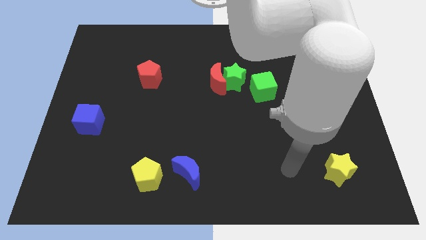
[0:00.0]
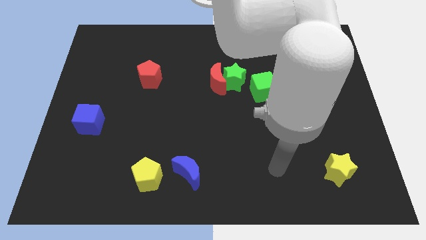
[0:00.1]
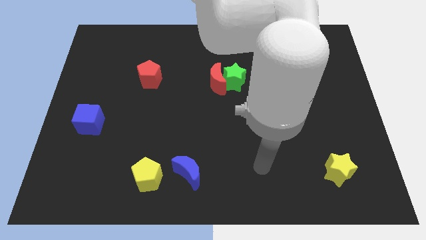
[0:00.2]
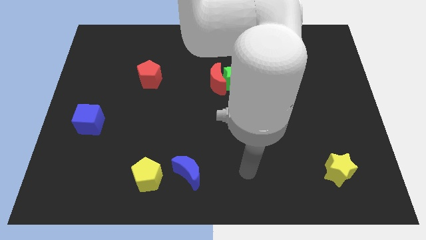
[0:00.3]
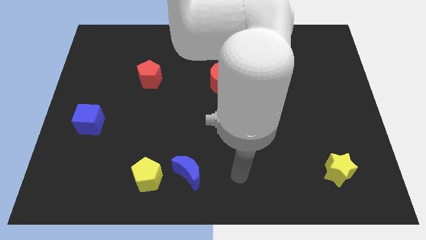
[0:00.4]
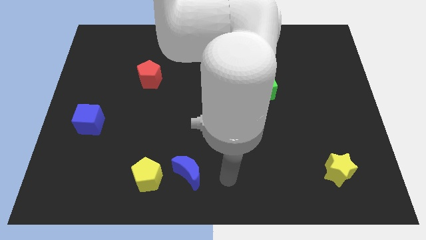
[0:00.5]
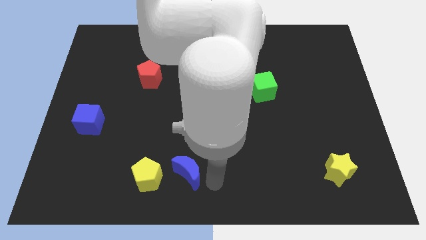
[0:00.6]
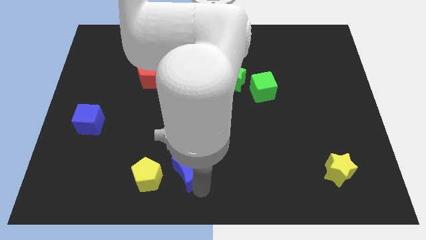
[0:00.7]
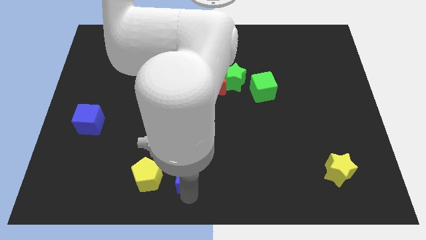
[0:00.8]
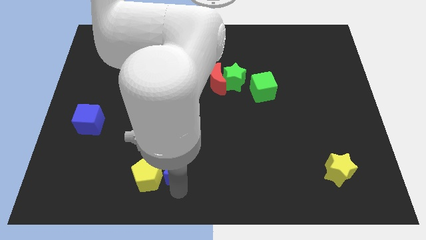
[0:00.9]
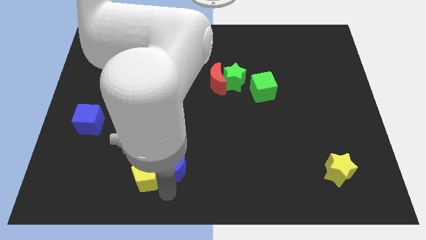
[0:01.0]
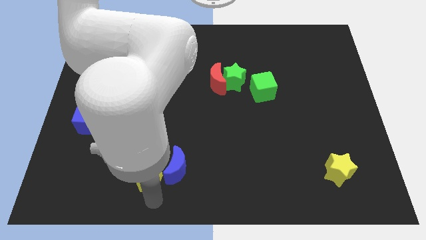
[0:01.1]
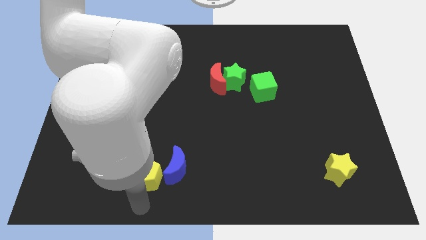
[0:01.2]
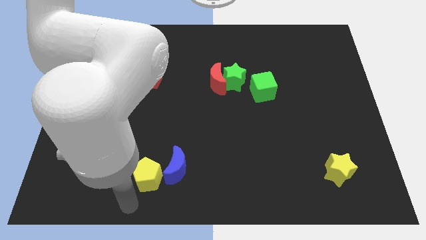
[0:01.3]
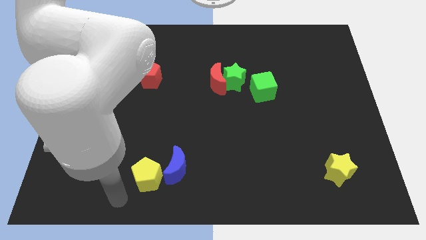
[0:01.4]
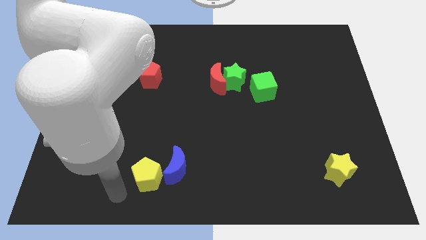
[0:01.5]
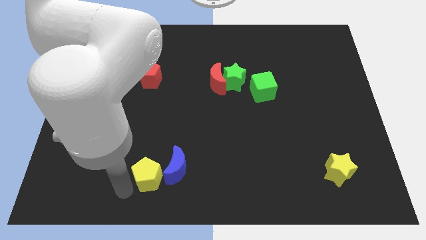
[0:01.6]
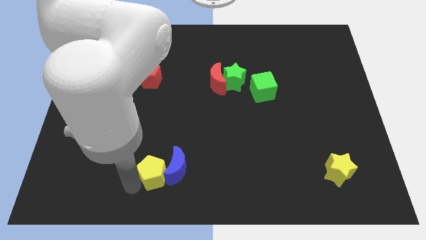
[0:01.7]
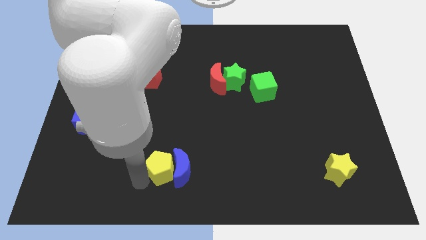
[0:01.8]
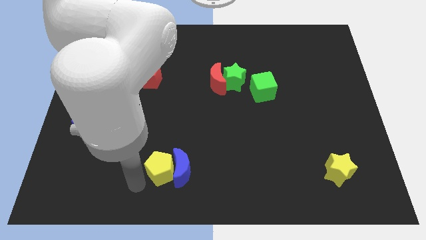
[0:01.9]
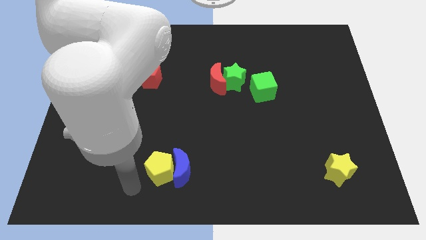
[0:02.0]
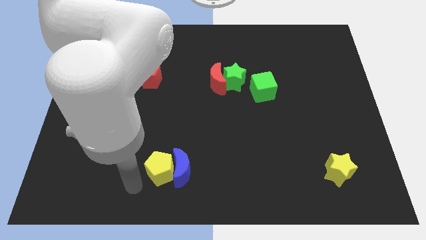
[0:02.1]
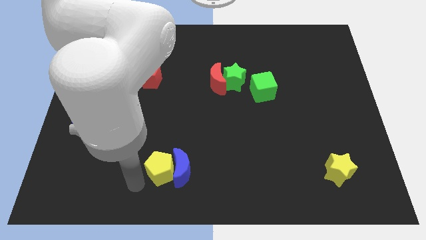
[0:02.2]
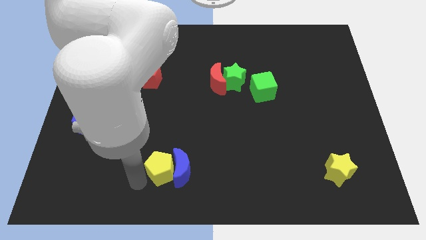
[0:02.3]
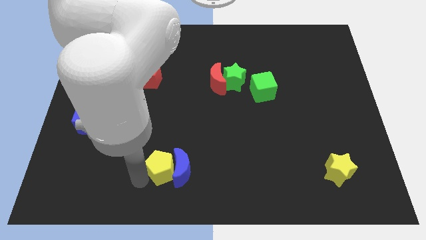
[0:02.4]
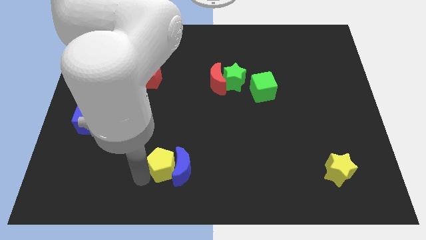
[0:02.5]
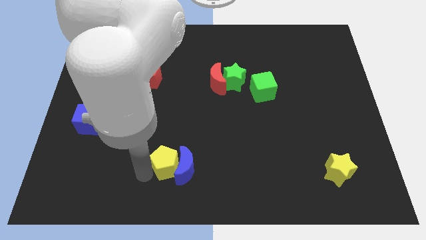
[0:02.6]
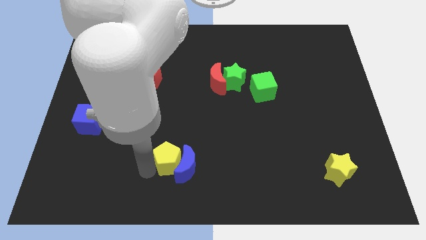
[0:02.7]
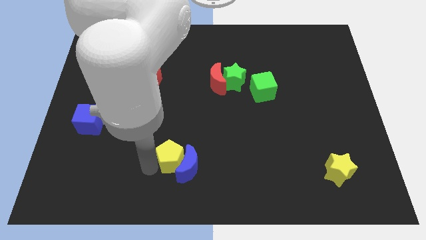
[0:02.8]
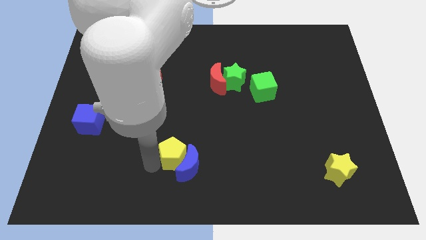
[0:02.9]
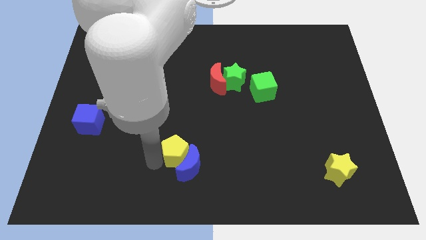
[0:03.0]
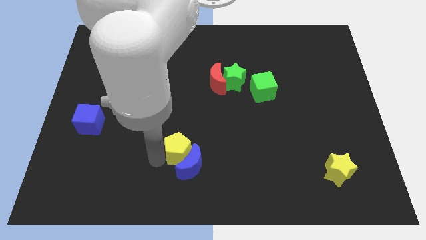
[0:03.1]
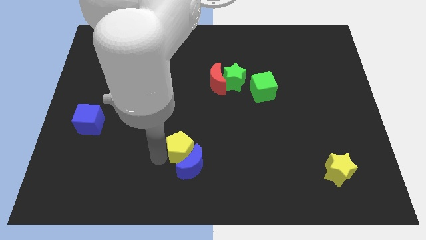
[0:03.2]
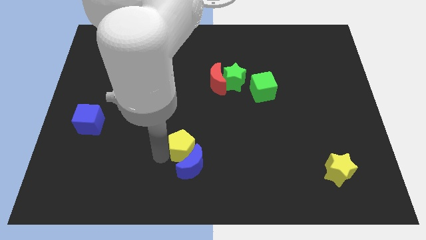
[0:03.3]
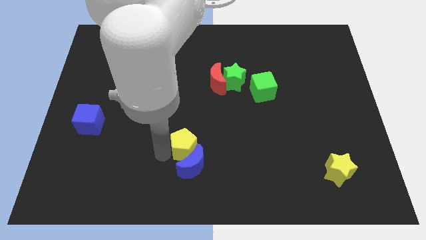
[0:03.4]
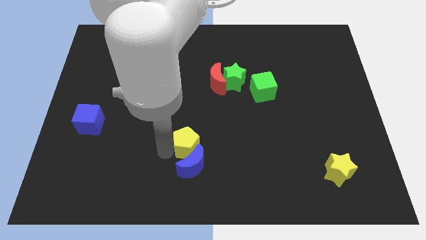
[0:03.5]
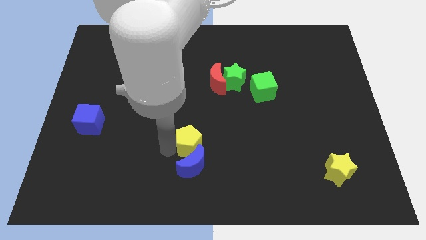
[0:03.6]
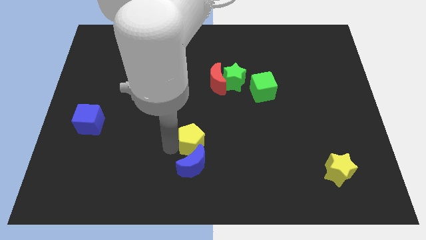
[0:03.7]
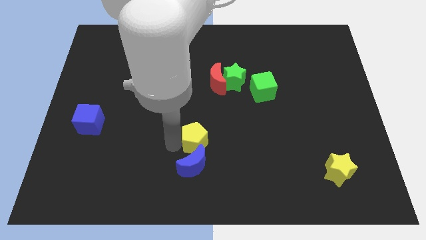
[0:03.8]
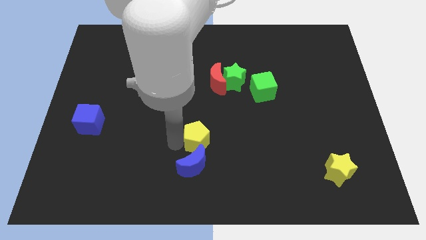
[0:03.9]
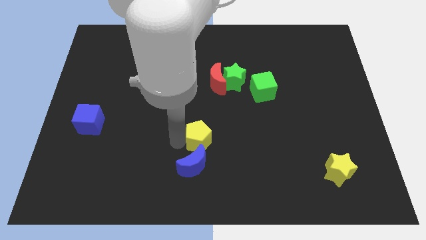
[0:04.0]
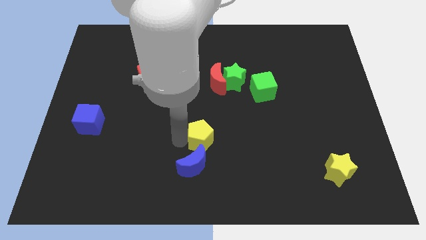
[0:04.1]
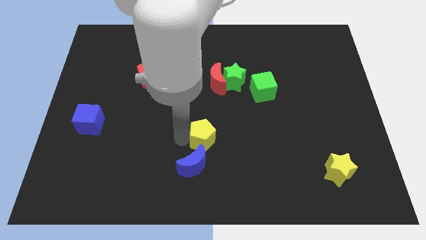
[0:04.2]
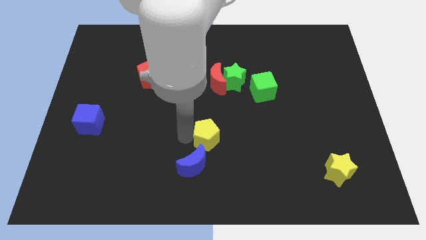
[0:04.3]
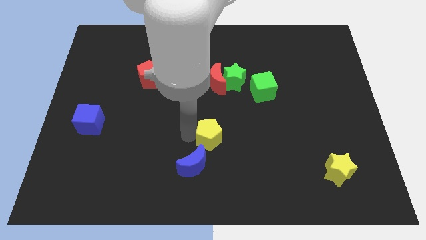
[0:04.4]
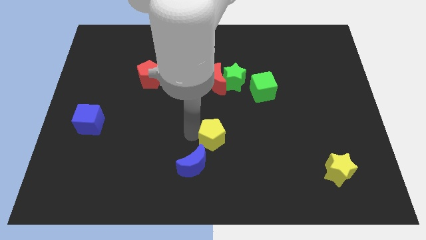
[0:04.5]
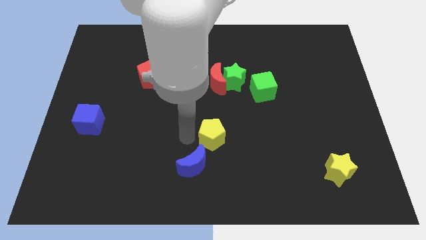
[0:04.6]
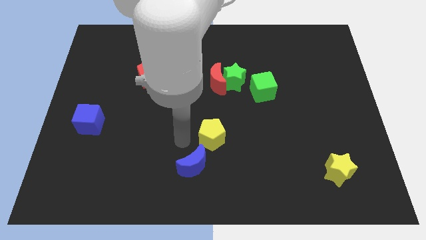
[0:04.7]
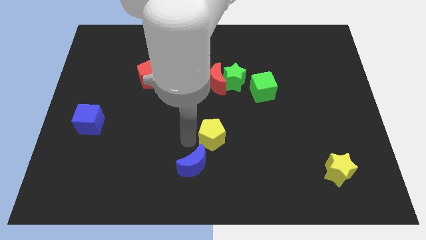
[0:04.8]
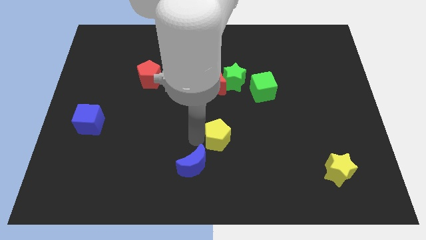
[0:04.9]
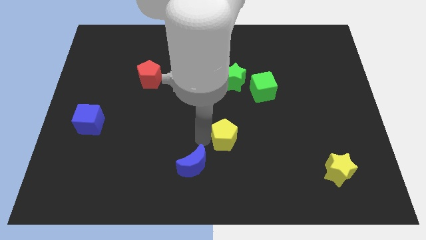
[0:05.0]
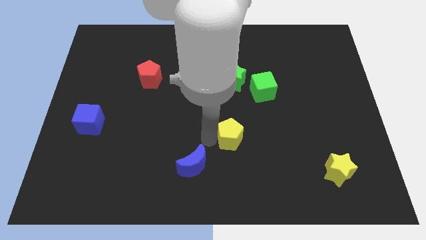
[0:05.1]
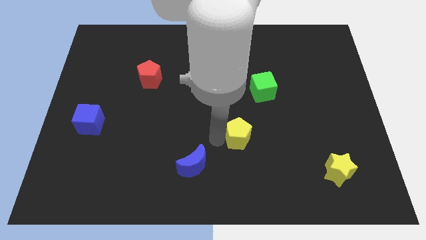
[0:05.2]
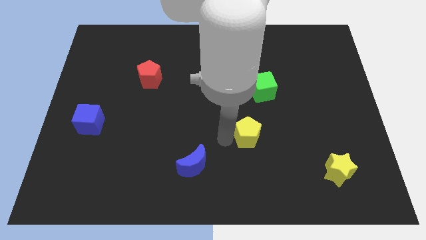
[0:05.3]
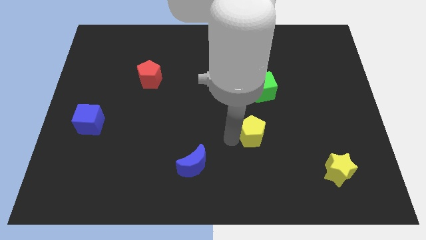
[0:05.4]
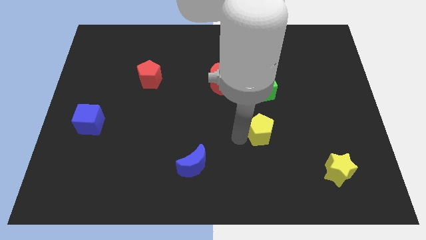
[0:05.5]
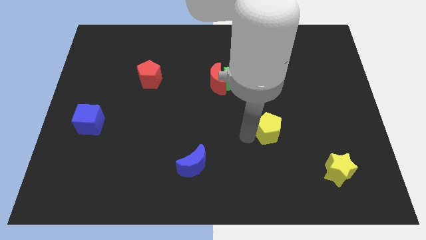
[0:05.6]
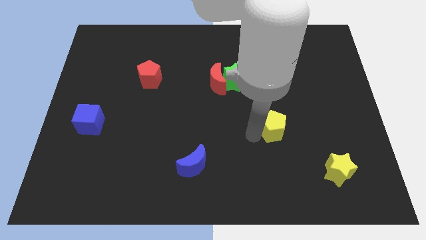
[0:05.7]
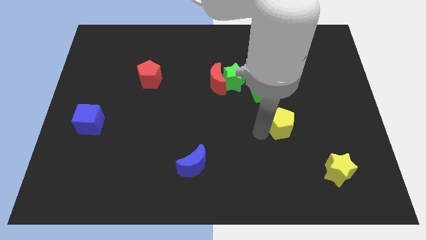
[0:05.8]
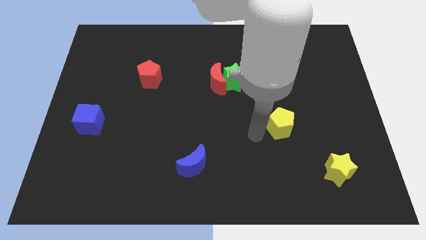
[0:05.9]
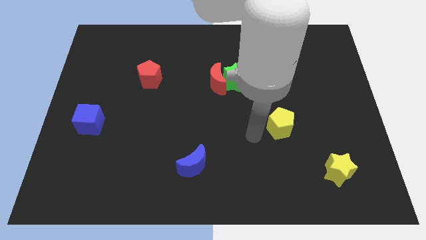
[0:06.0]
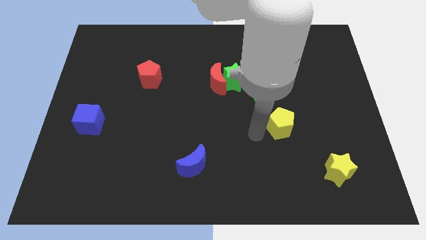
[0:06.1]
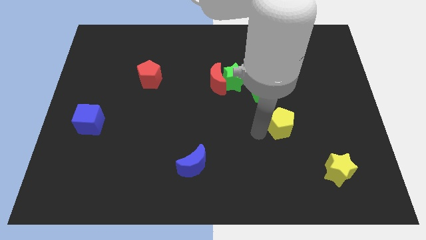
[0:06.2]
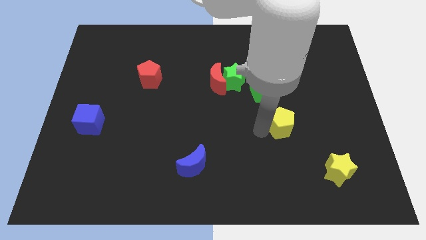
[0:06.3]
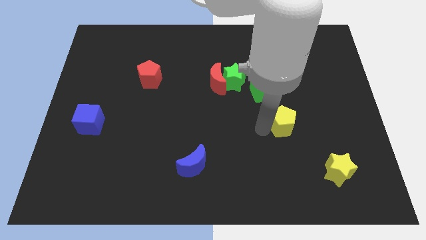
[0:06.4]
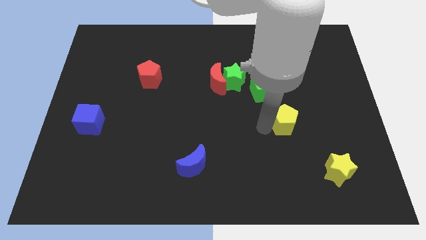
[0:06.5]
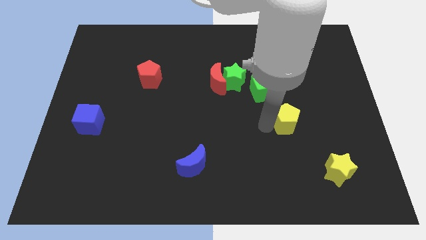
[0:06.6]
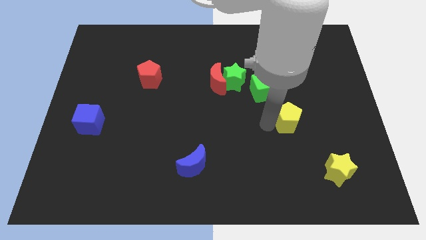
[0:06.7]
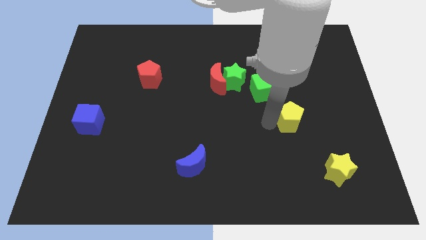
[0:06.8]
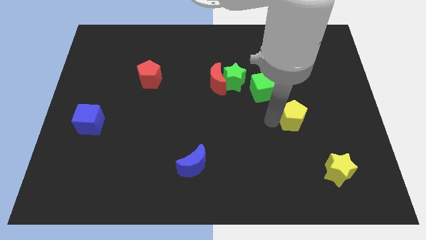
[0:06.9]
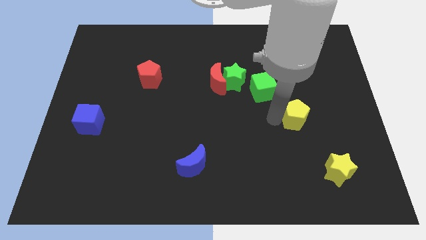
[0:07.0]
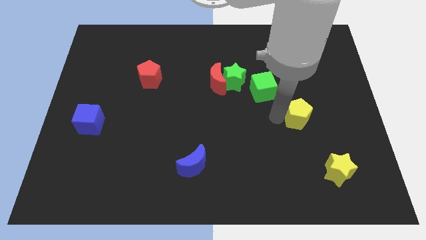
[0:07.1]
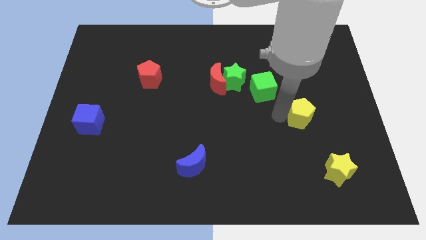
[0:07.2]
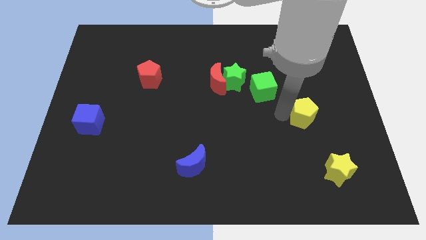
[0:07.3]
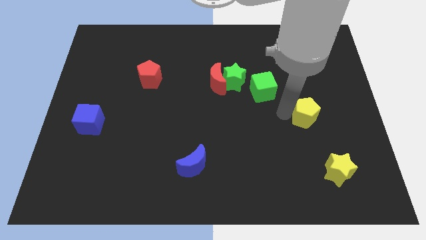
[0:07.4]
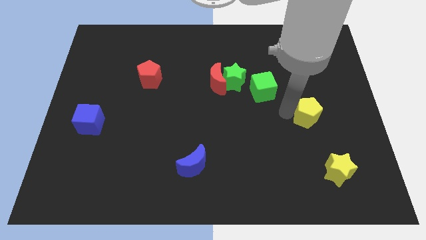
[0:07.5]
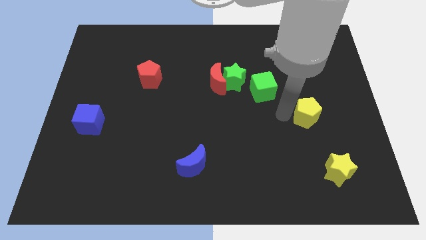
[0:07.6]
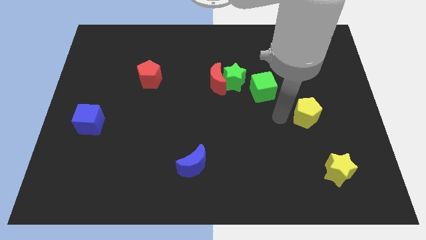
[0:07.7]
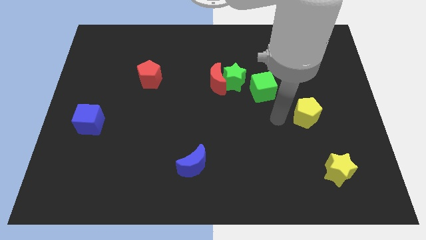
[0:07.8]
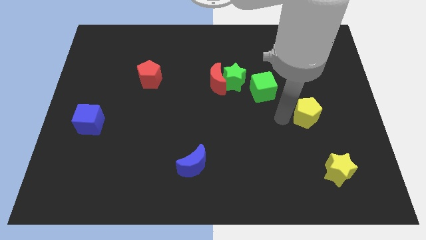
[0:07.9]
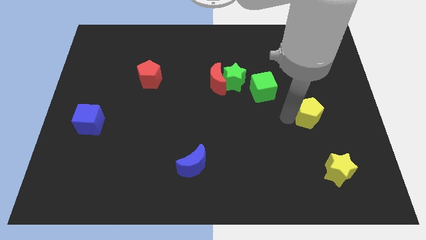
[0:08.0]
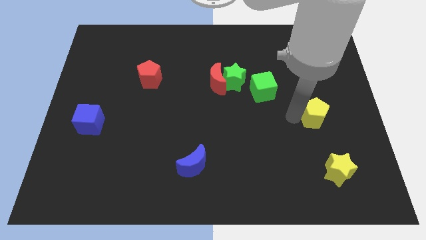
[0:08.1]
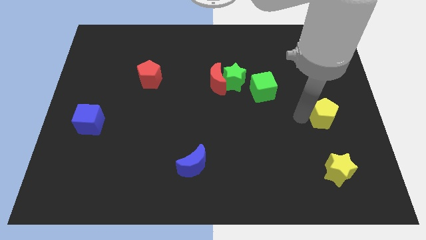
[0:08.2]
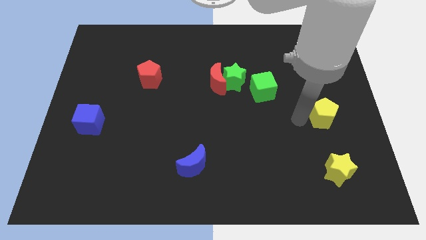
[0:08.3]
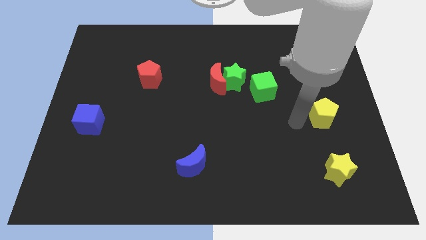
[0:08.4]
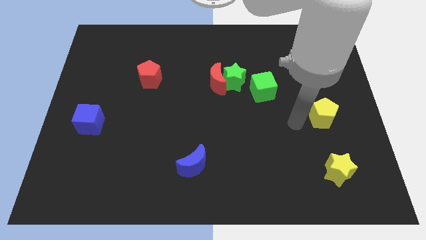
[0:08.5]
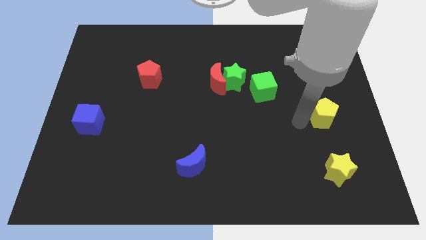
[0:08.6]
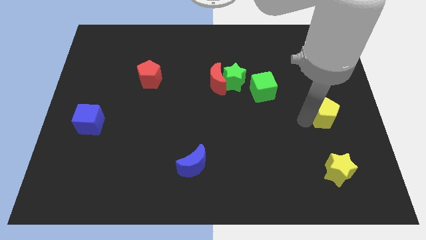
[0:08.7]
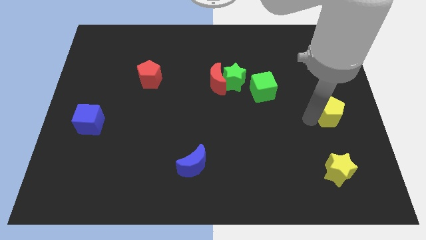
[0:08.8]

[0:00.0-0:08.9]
move the yellow pentagon to the right side
